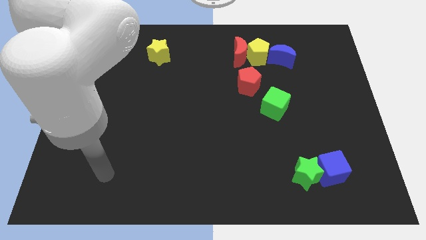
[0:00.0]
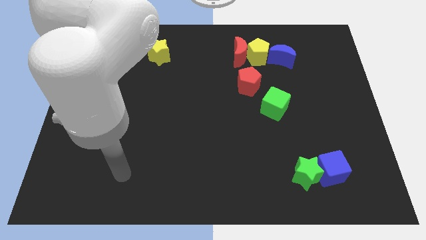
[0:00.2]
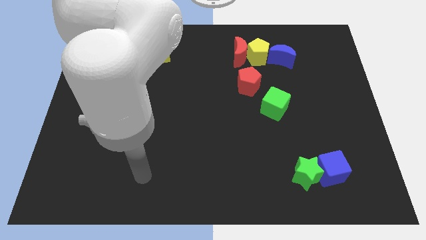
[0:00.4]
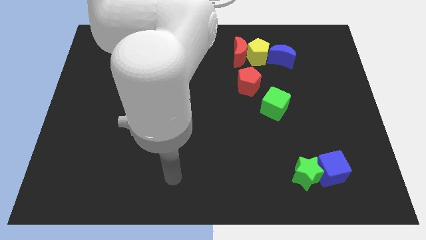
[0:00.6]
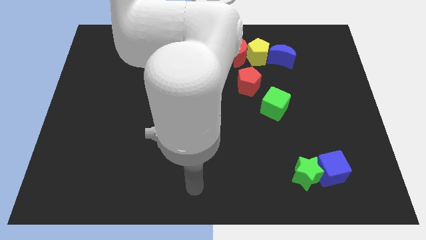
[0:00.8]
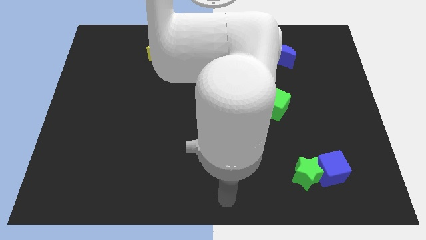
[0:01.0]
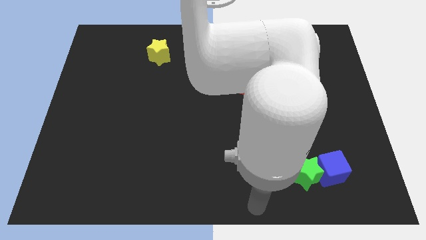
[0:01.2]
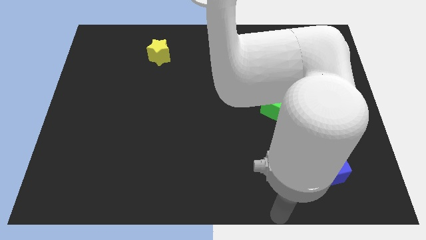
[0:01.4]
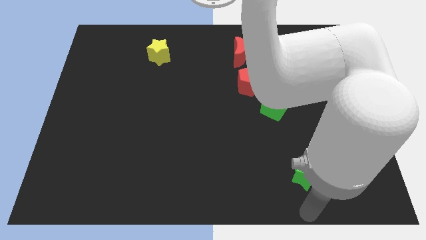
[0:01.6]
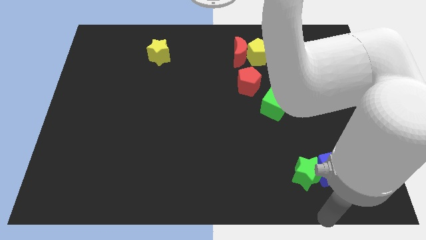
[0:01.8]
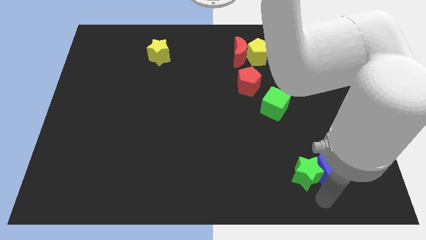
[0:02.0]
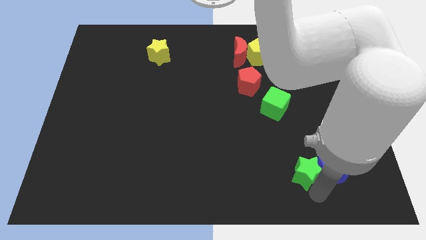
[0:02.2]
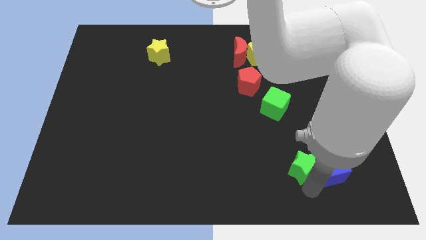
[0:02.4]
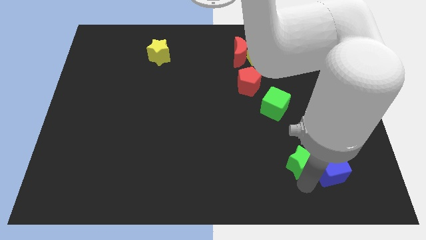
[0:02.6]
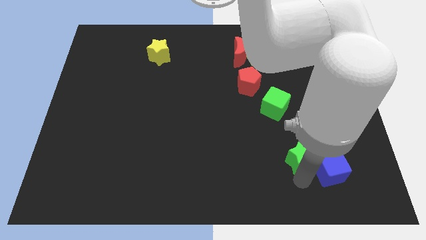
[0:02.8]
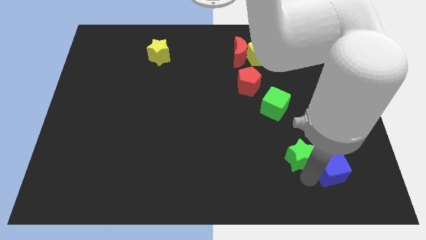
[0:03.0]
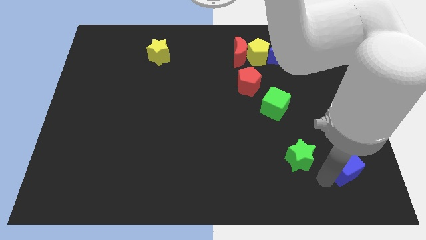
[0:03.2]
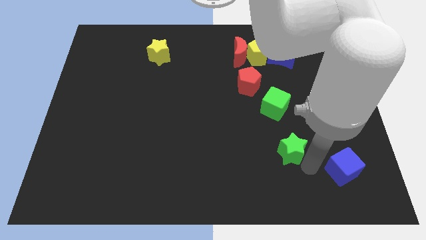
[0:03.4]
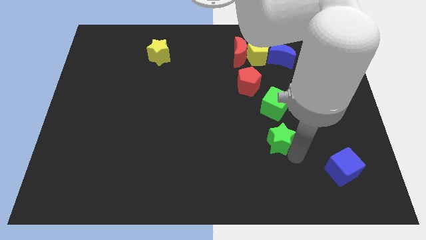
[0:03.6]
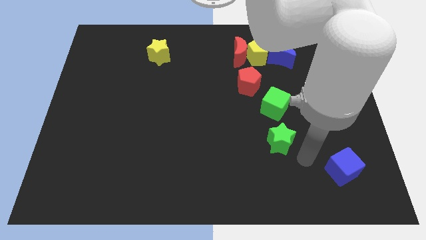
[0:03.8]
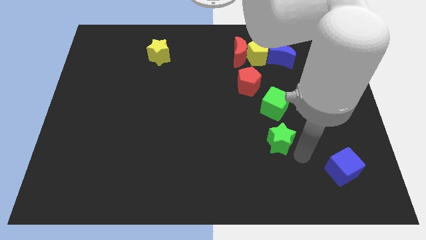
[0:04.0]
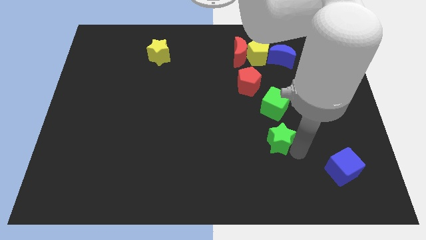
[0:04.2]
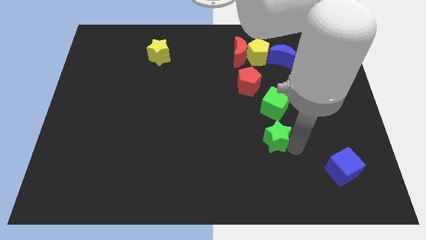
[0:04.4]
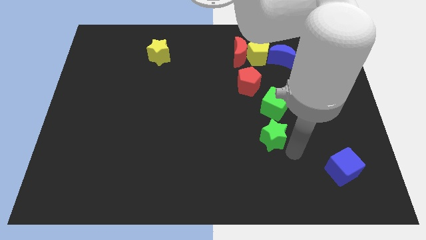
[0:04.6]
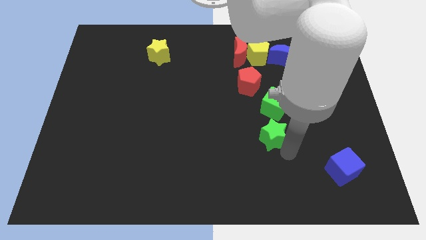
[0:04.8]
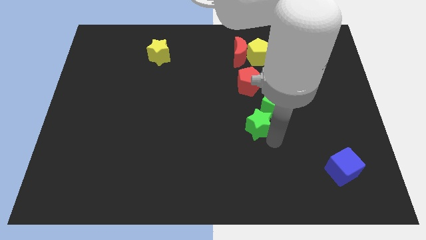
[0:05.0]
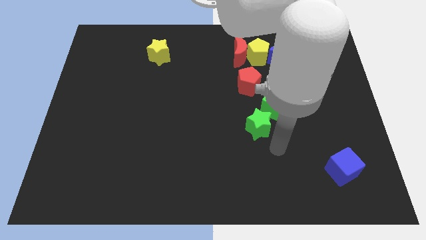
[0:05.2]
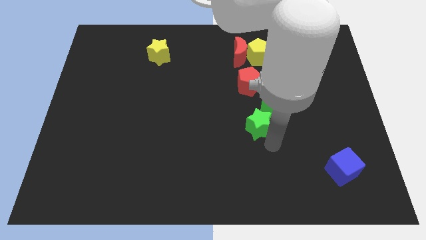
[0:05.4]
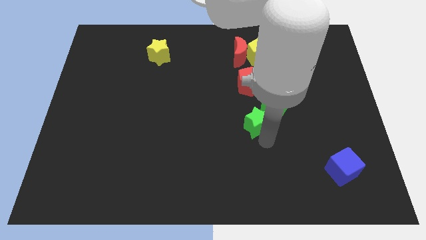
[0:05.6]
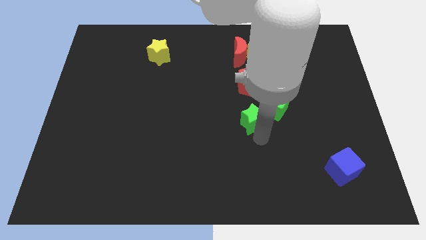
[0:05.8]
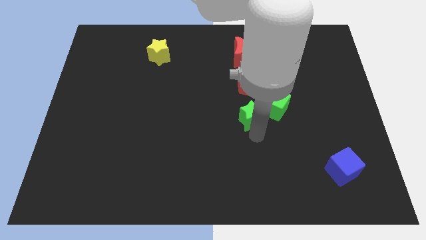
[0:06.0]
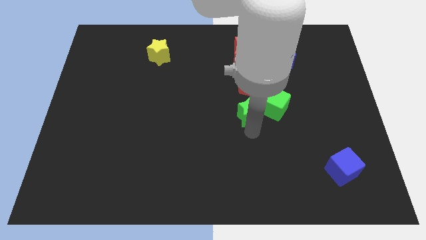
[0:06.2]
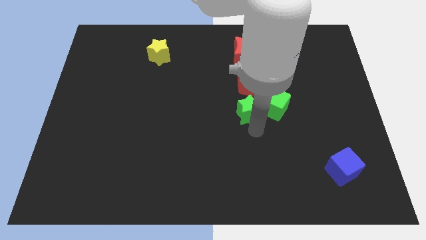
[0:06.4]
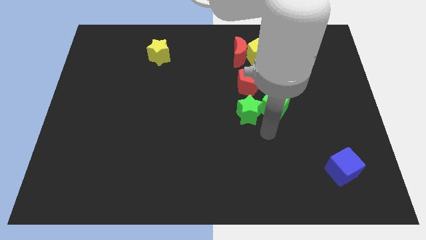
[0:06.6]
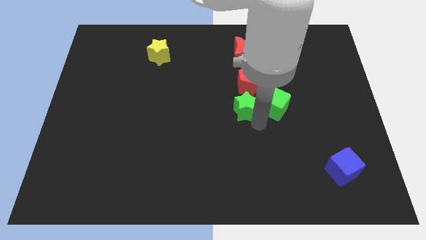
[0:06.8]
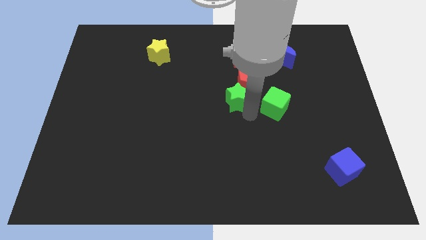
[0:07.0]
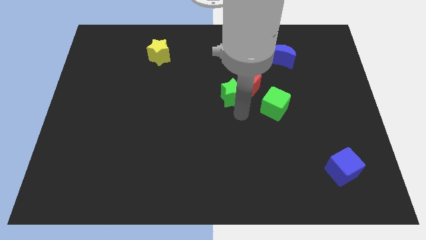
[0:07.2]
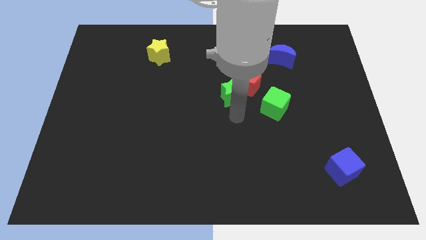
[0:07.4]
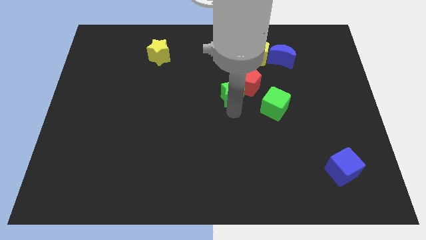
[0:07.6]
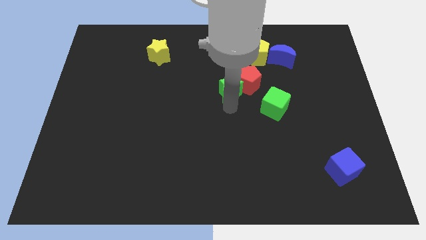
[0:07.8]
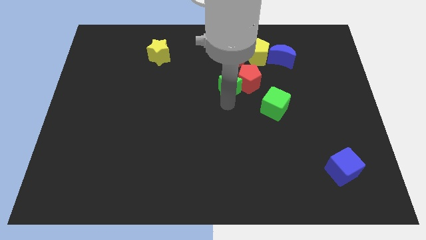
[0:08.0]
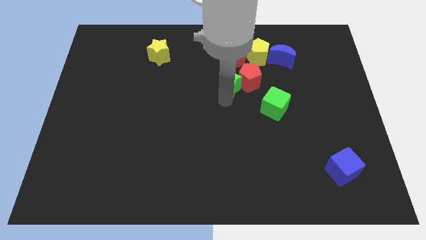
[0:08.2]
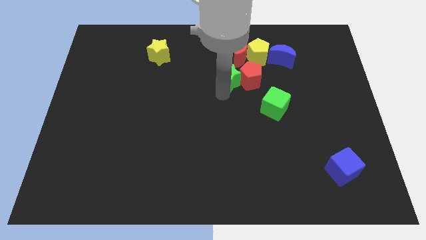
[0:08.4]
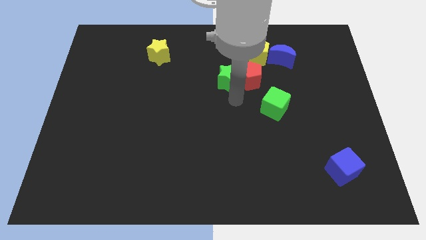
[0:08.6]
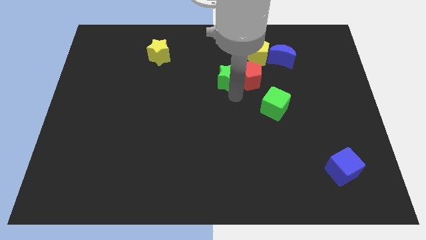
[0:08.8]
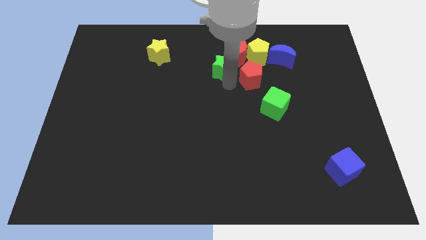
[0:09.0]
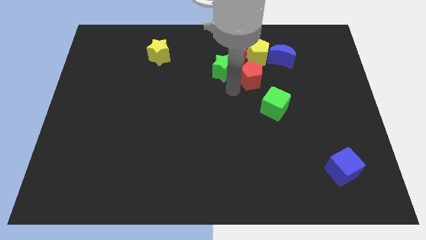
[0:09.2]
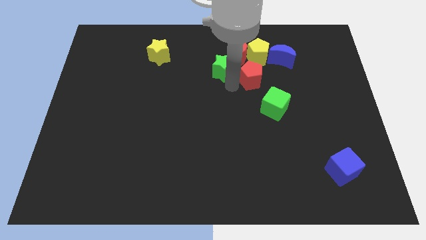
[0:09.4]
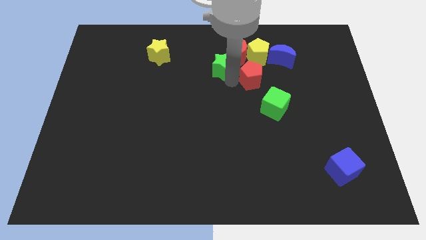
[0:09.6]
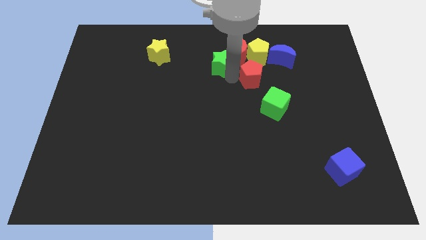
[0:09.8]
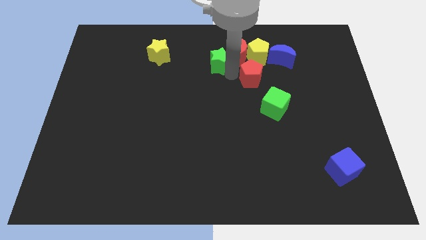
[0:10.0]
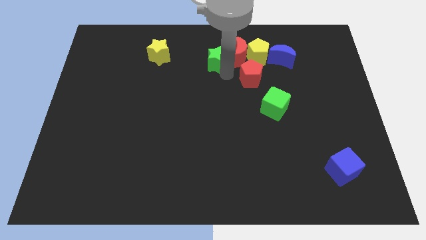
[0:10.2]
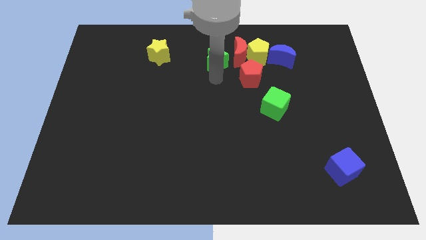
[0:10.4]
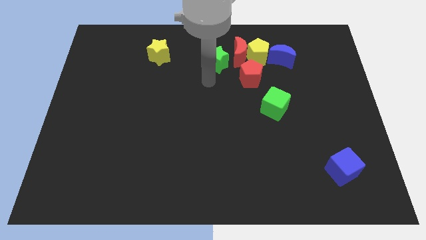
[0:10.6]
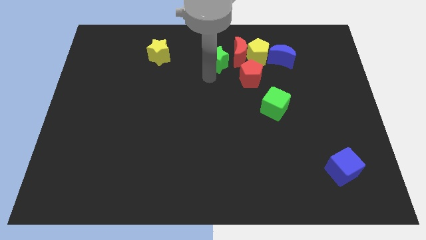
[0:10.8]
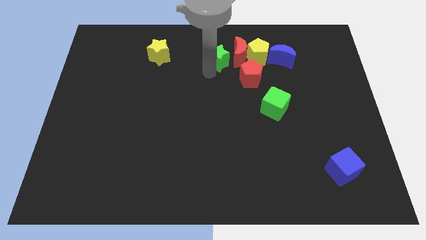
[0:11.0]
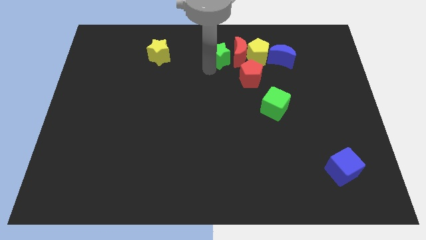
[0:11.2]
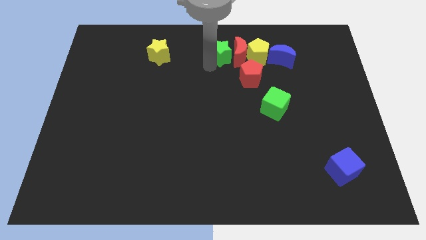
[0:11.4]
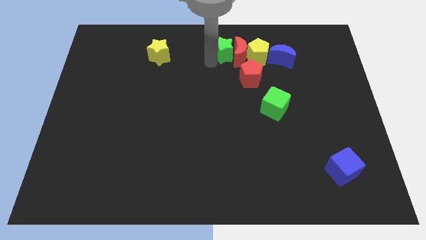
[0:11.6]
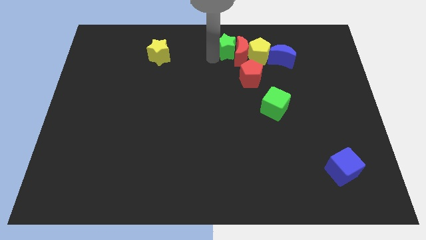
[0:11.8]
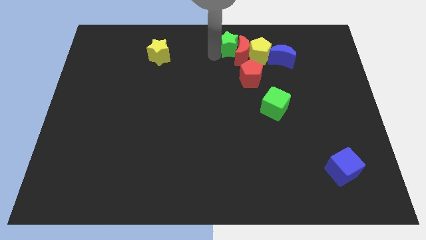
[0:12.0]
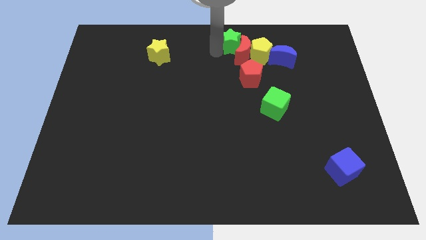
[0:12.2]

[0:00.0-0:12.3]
move the green star to the top of the red pentagon

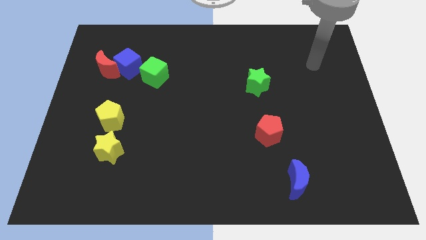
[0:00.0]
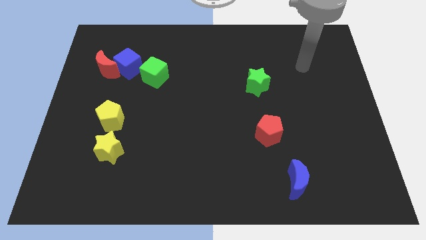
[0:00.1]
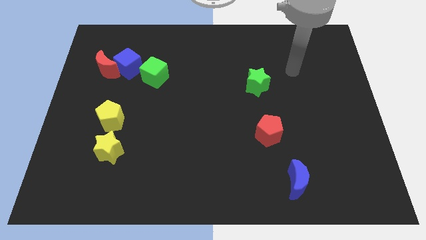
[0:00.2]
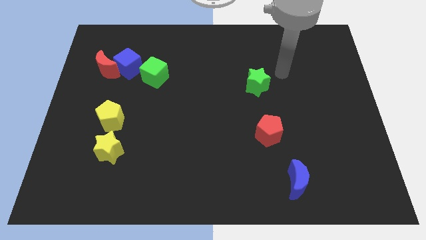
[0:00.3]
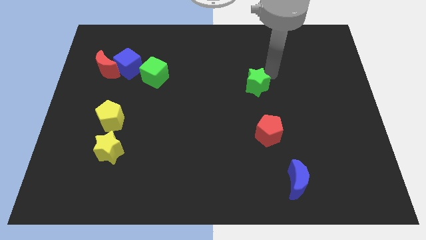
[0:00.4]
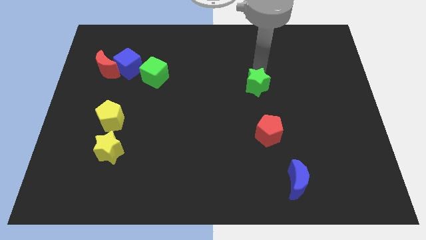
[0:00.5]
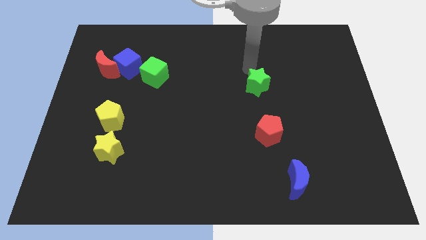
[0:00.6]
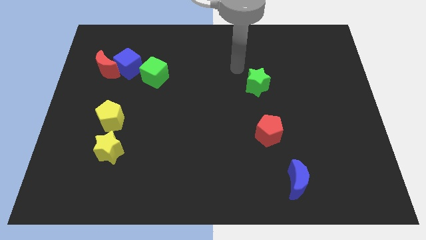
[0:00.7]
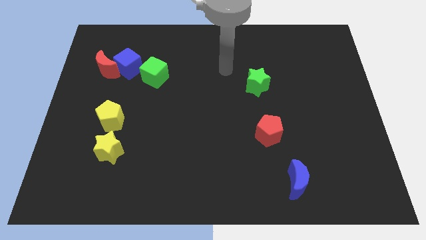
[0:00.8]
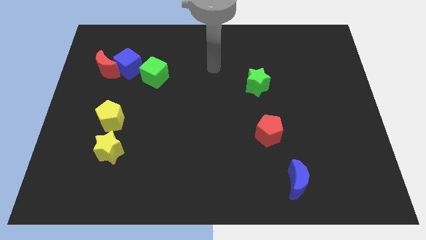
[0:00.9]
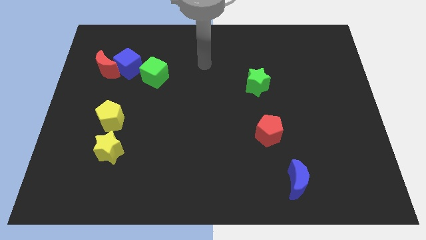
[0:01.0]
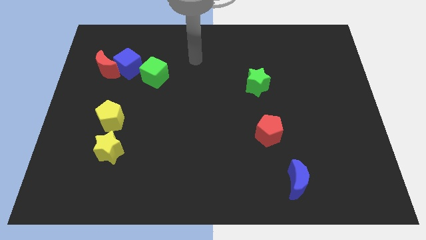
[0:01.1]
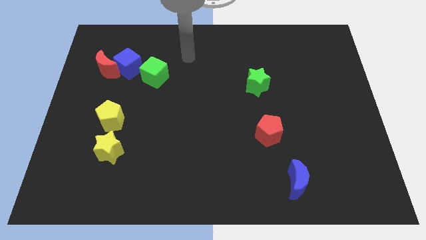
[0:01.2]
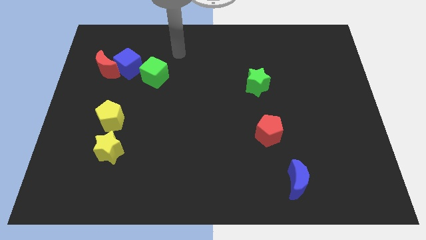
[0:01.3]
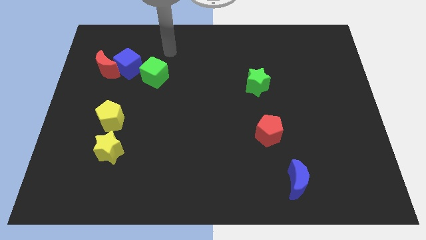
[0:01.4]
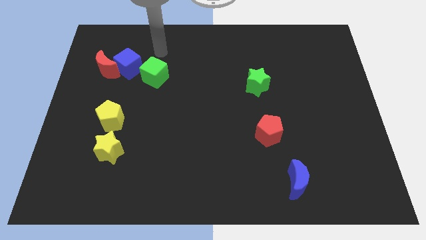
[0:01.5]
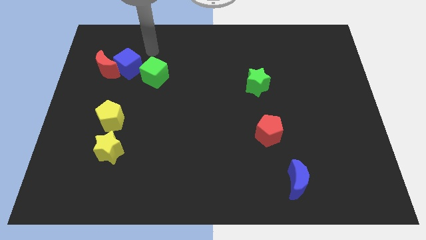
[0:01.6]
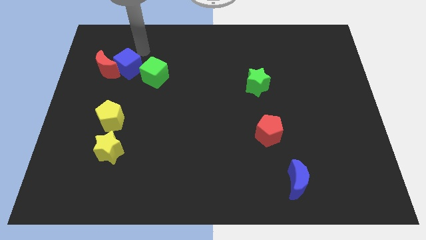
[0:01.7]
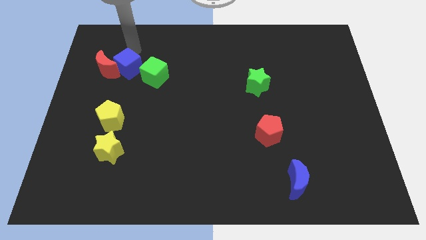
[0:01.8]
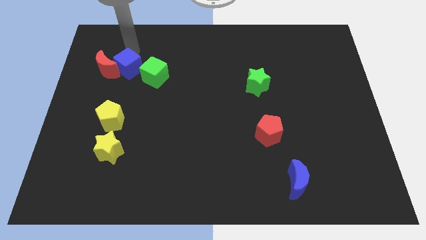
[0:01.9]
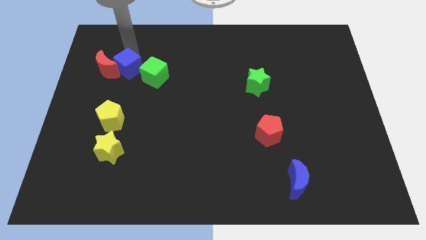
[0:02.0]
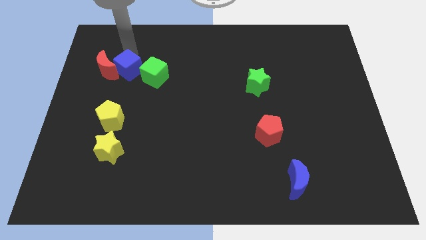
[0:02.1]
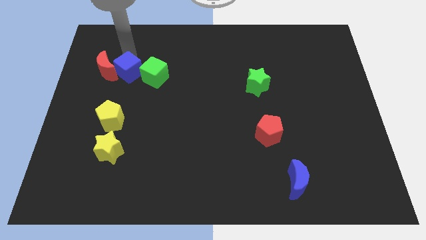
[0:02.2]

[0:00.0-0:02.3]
slide the blue cube to the top side of the yellow pentagon
